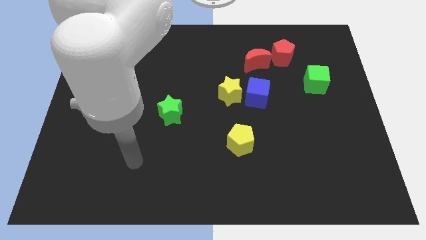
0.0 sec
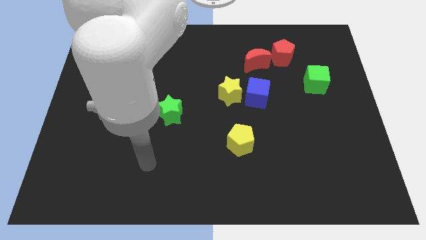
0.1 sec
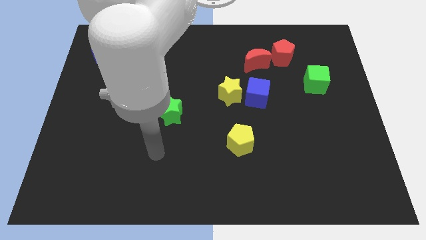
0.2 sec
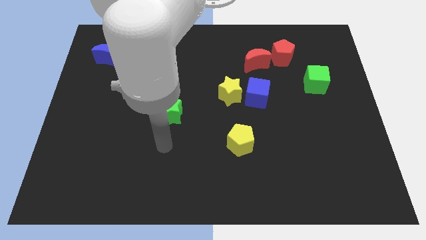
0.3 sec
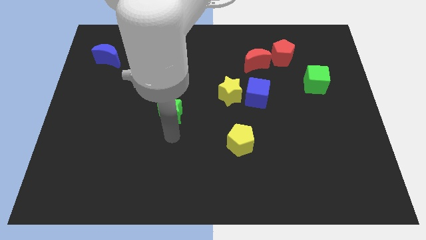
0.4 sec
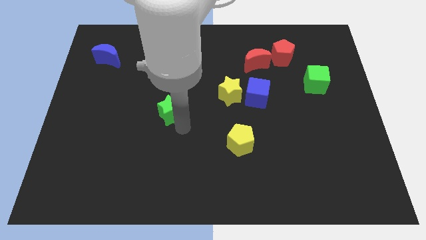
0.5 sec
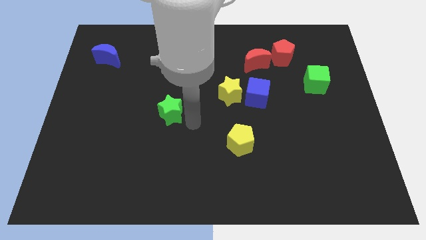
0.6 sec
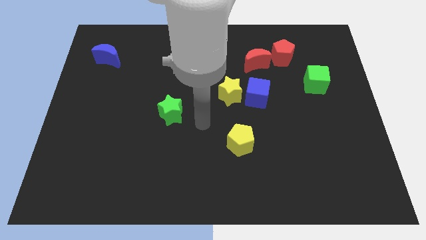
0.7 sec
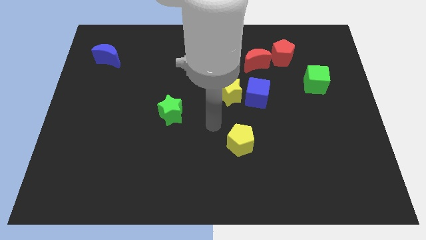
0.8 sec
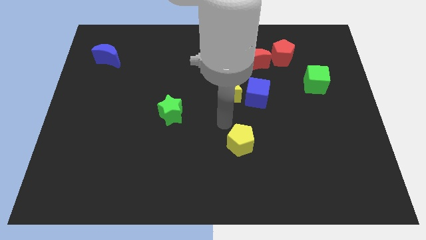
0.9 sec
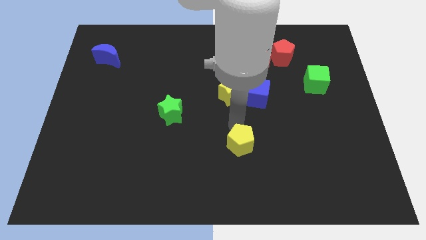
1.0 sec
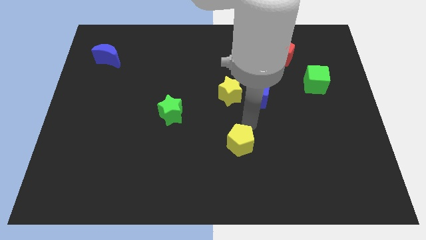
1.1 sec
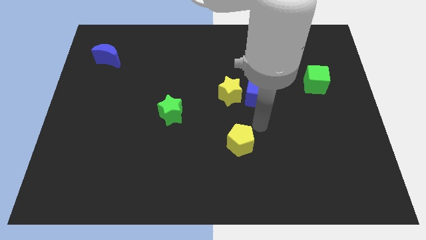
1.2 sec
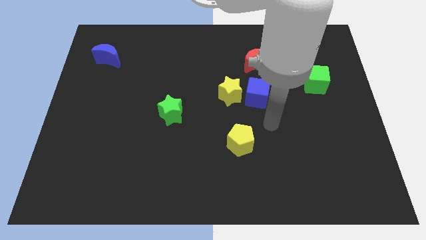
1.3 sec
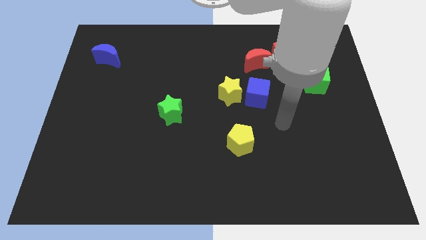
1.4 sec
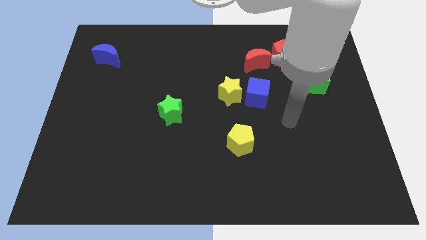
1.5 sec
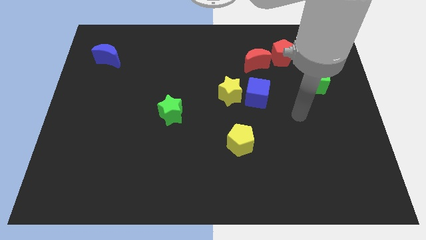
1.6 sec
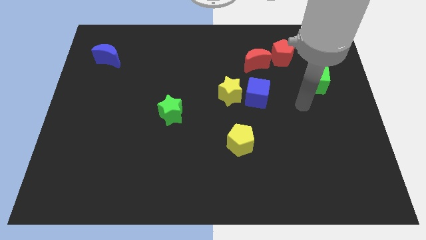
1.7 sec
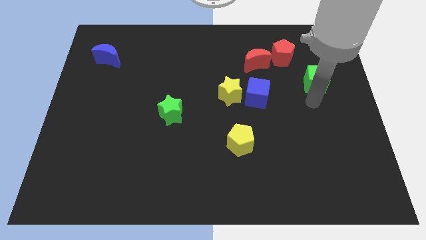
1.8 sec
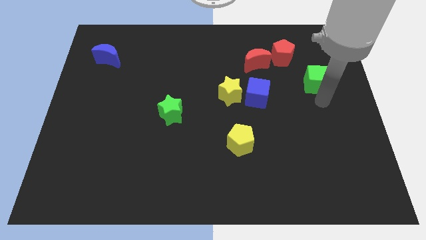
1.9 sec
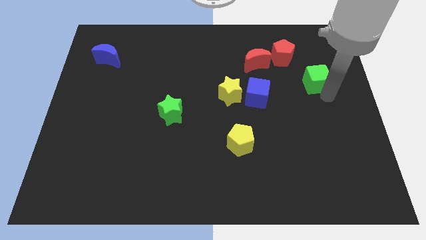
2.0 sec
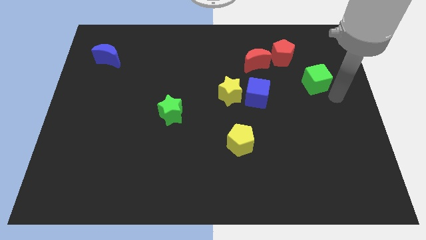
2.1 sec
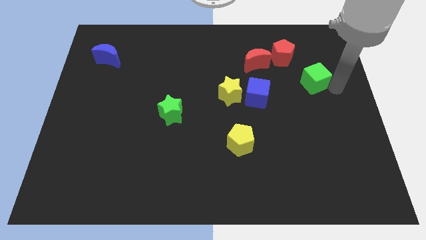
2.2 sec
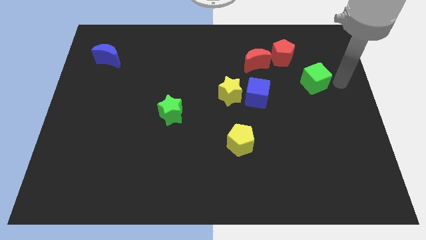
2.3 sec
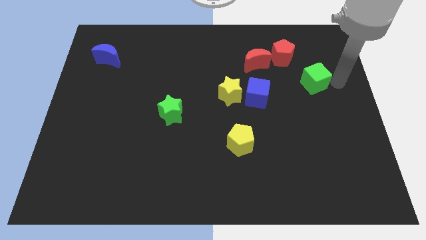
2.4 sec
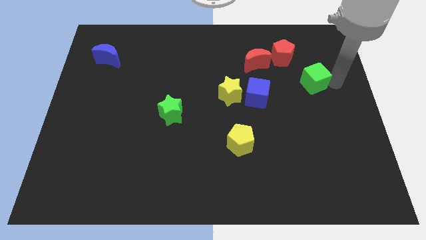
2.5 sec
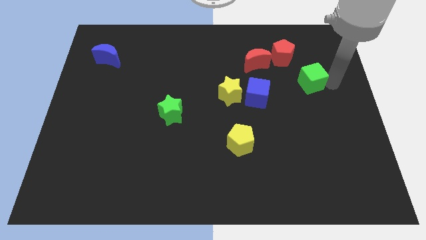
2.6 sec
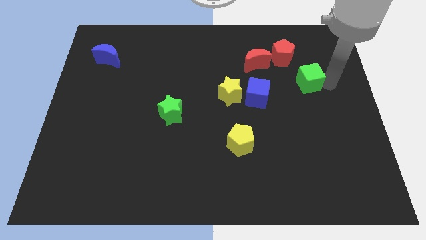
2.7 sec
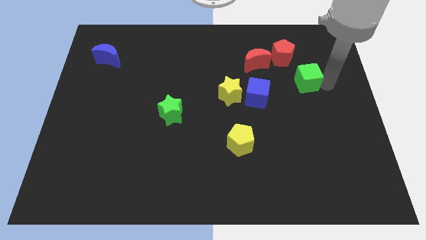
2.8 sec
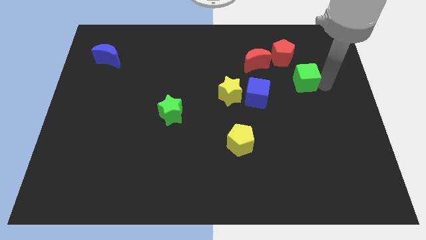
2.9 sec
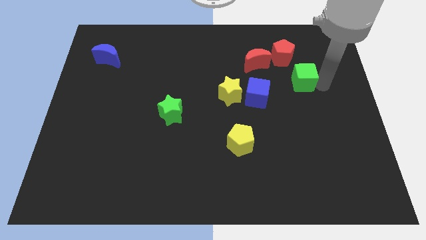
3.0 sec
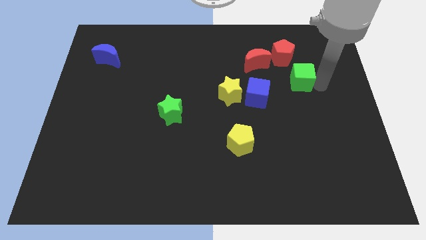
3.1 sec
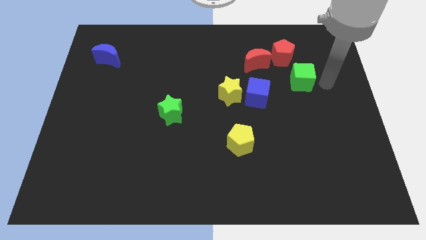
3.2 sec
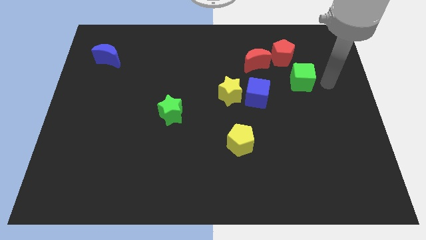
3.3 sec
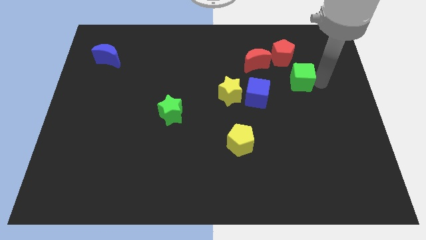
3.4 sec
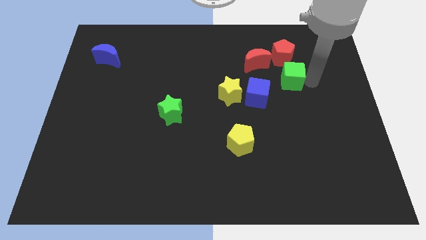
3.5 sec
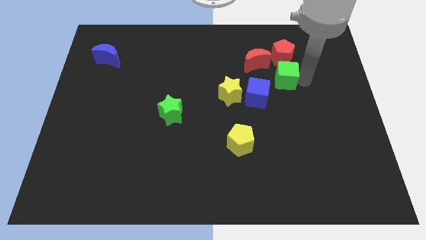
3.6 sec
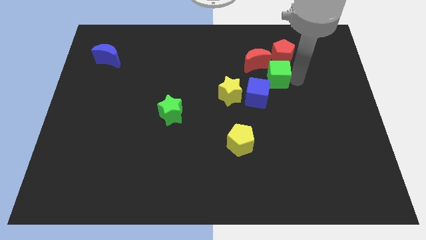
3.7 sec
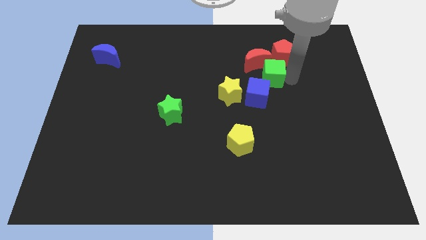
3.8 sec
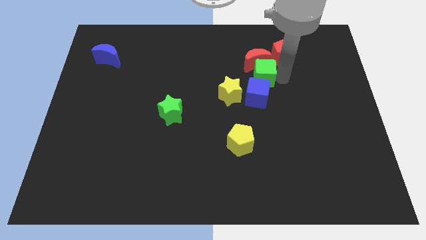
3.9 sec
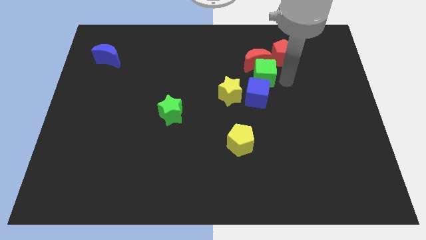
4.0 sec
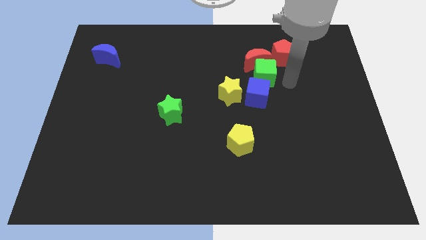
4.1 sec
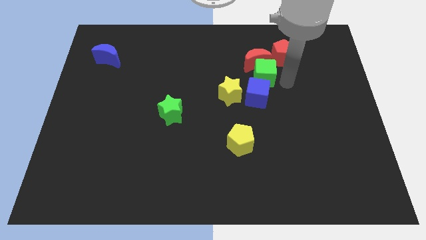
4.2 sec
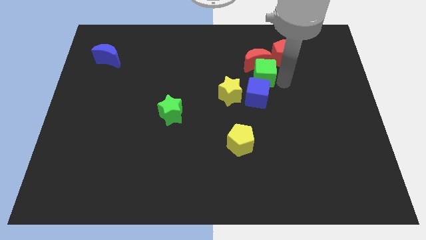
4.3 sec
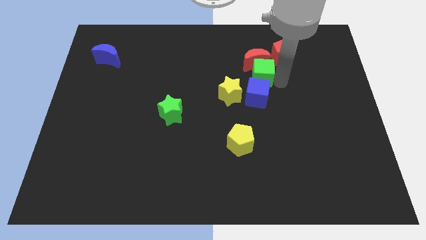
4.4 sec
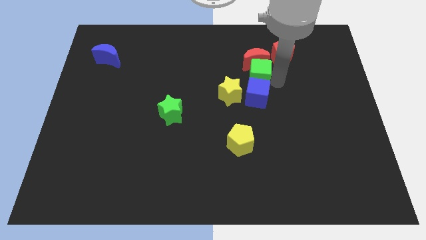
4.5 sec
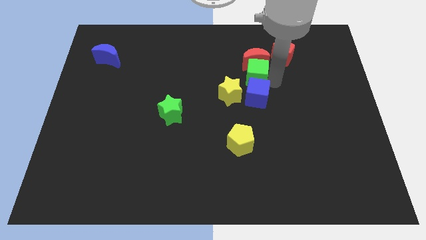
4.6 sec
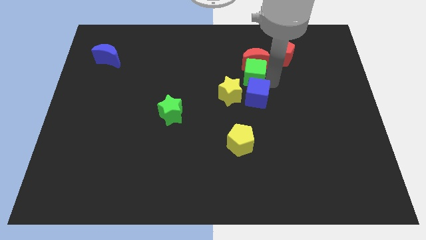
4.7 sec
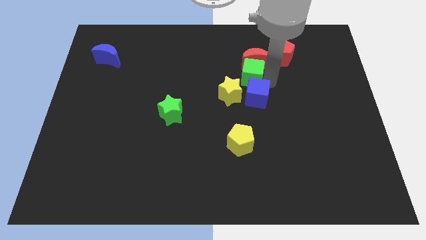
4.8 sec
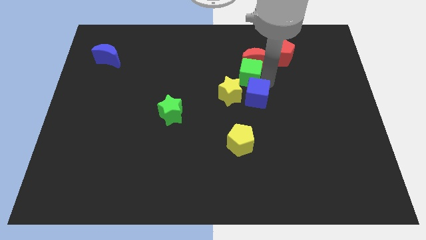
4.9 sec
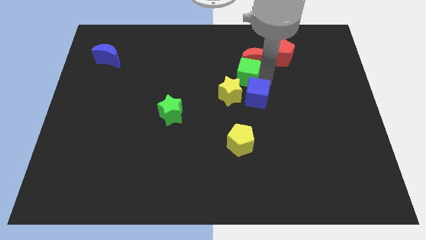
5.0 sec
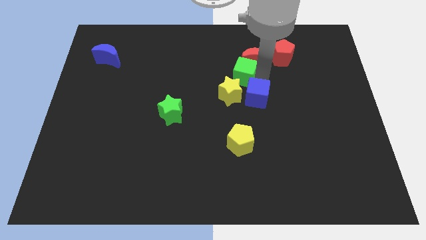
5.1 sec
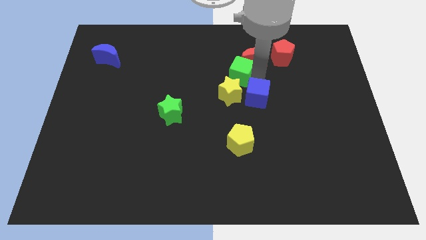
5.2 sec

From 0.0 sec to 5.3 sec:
push the green cube to the left side of the red moon

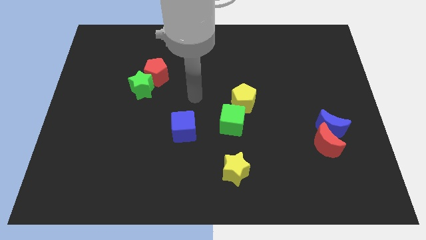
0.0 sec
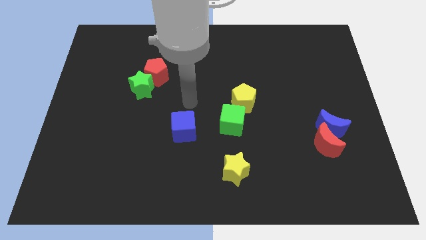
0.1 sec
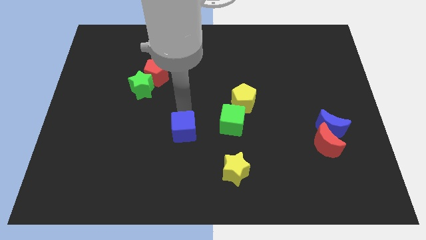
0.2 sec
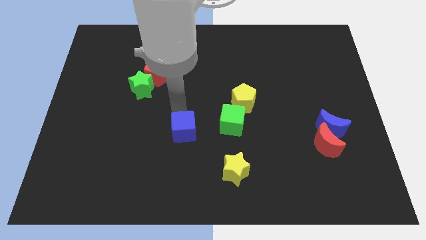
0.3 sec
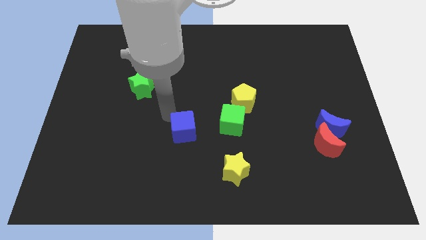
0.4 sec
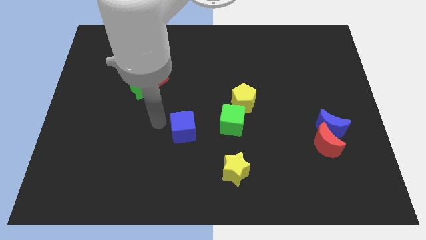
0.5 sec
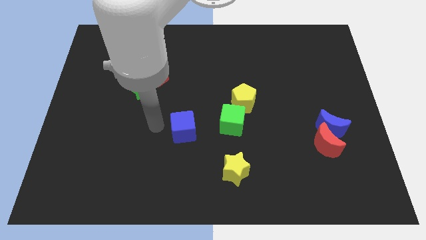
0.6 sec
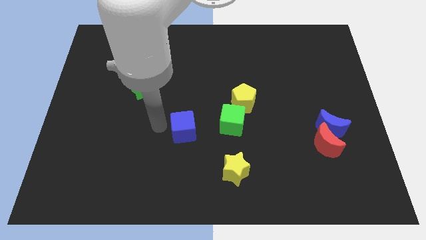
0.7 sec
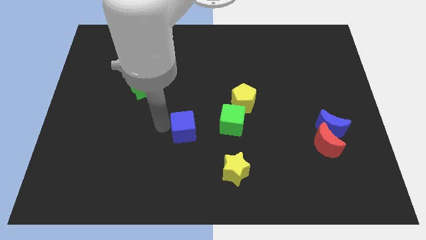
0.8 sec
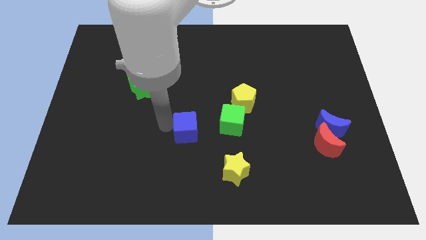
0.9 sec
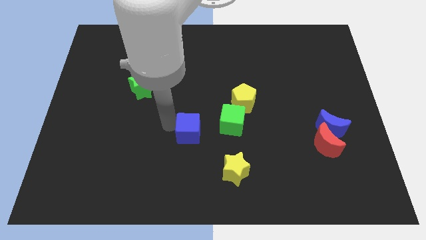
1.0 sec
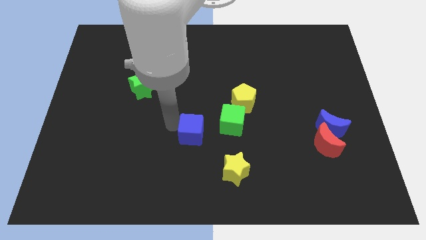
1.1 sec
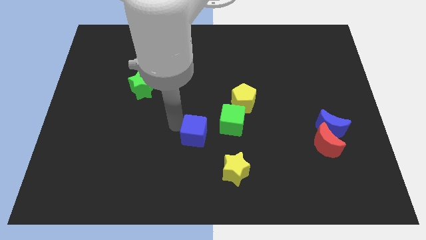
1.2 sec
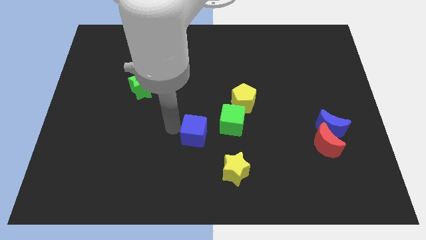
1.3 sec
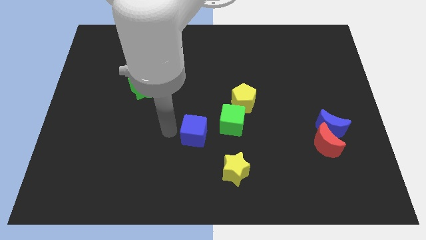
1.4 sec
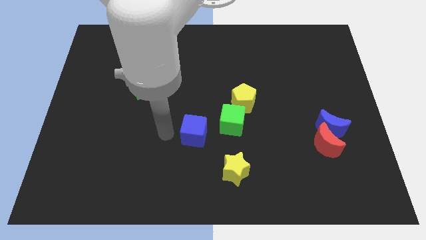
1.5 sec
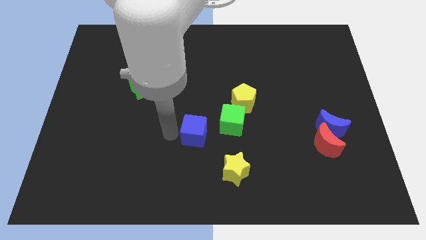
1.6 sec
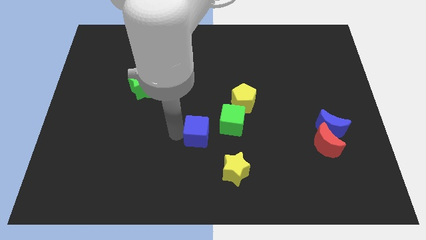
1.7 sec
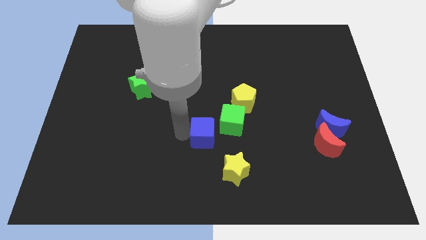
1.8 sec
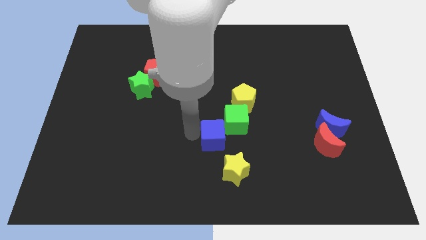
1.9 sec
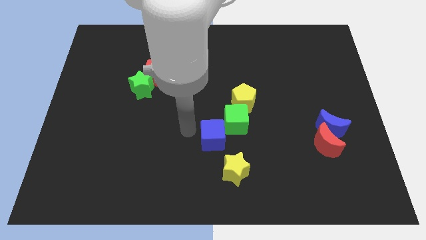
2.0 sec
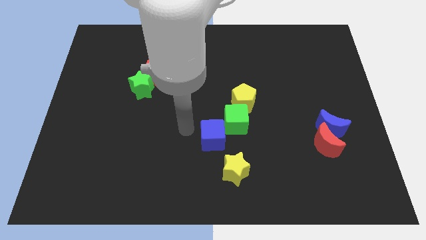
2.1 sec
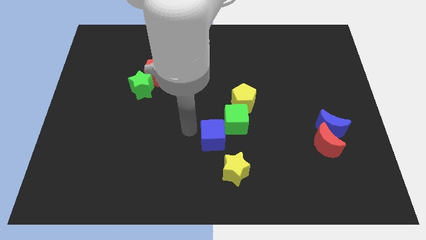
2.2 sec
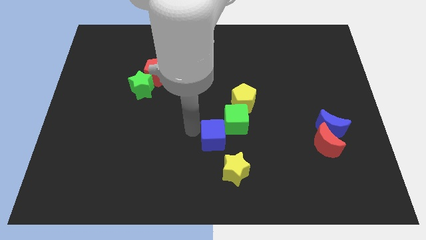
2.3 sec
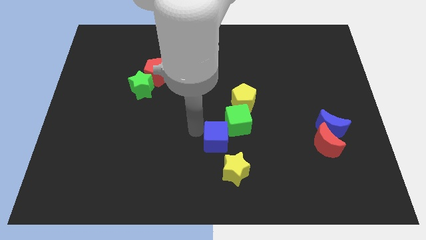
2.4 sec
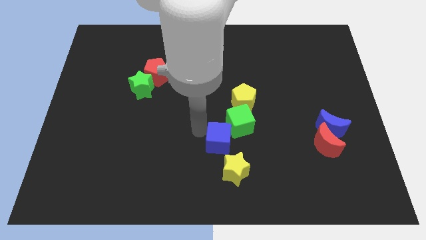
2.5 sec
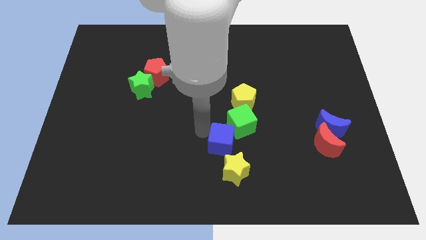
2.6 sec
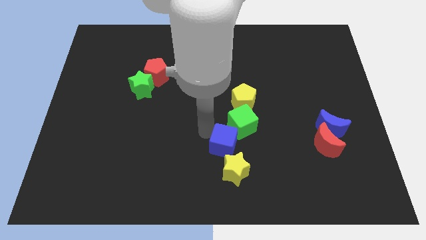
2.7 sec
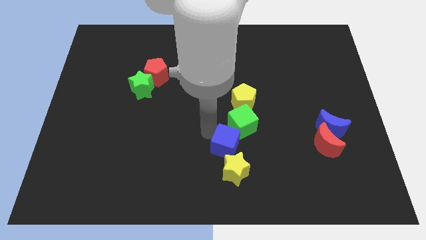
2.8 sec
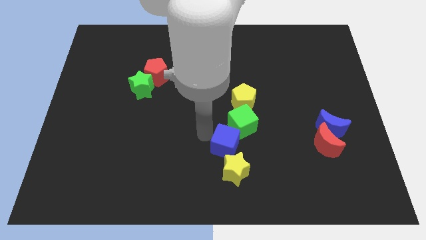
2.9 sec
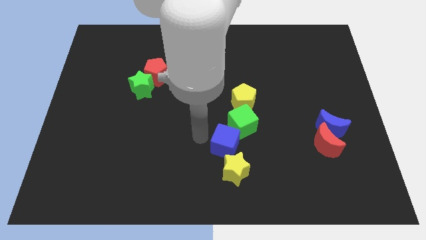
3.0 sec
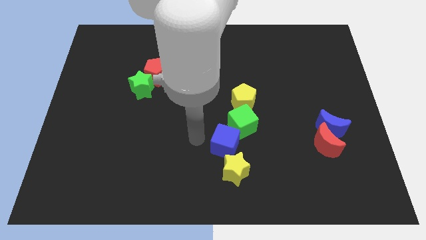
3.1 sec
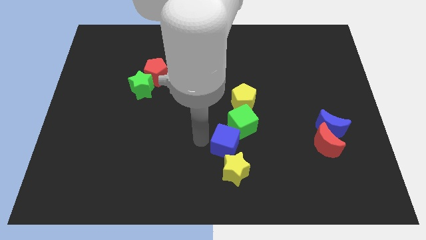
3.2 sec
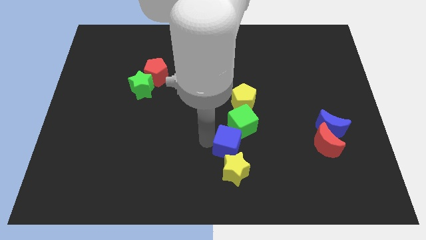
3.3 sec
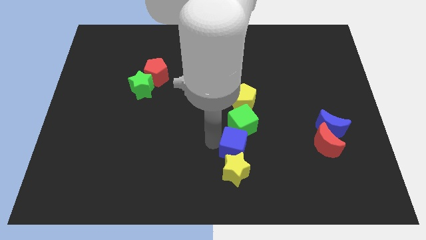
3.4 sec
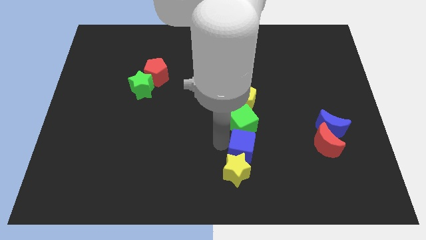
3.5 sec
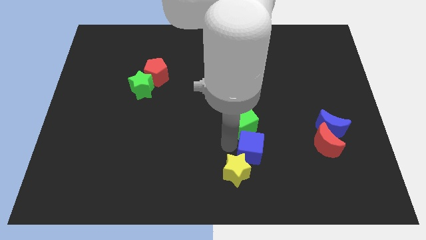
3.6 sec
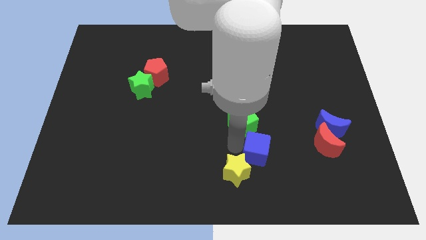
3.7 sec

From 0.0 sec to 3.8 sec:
push the blue cube right of the yellow star
